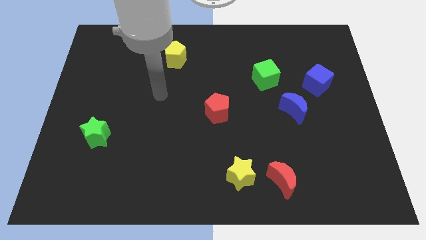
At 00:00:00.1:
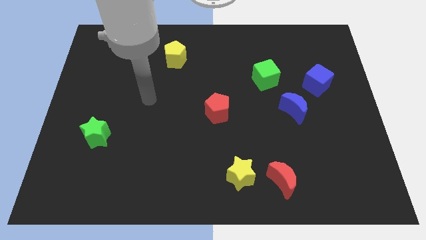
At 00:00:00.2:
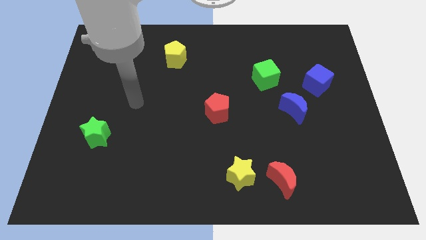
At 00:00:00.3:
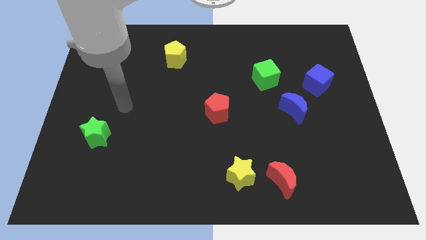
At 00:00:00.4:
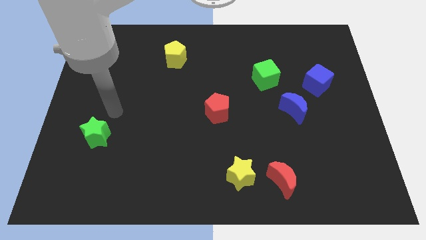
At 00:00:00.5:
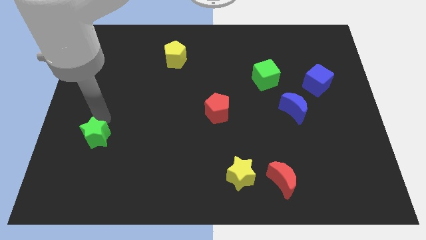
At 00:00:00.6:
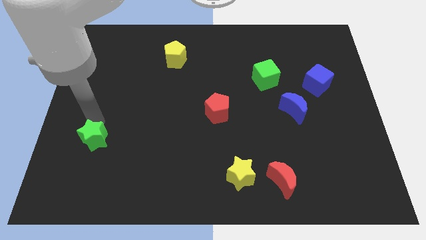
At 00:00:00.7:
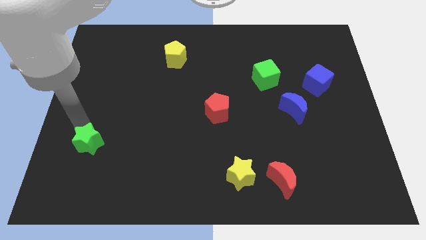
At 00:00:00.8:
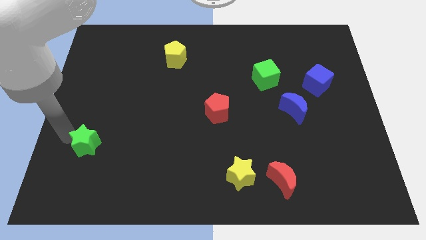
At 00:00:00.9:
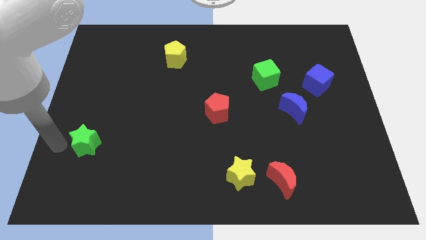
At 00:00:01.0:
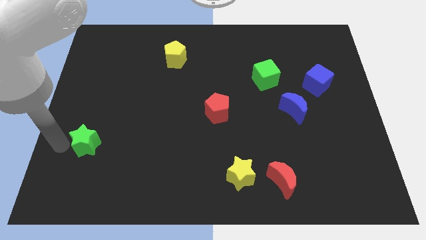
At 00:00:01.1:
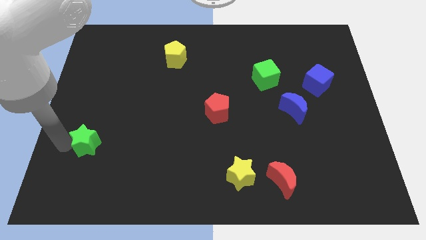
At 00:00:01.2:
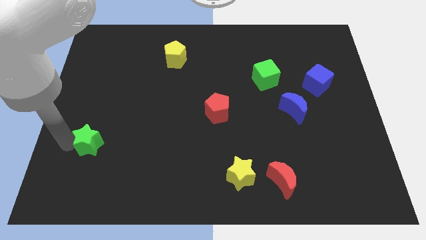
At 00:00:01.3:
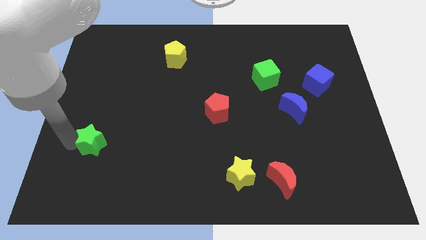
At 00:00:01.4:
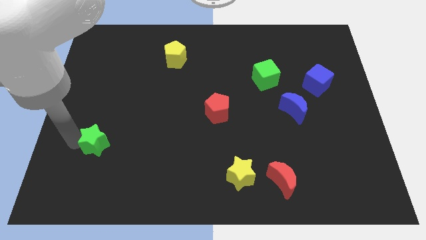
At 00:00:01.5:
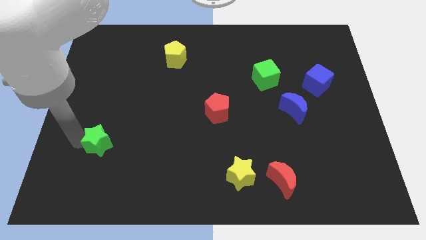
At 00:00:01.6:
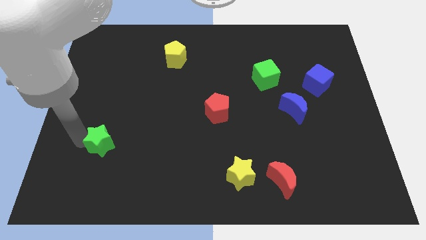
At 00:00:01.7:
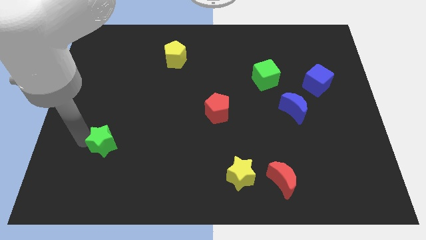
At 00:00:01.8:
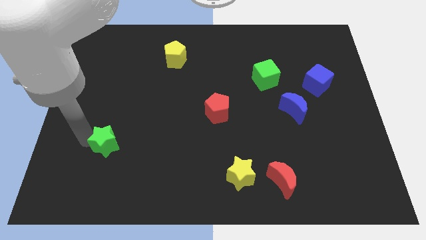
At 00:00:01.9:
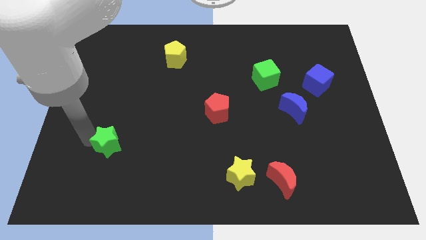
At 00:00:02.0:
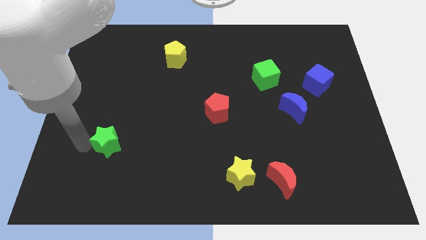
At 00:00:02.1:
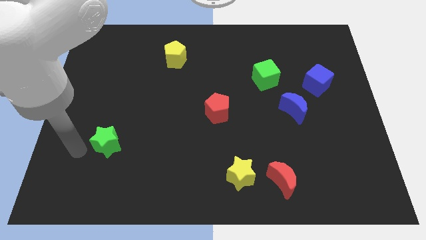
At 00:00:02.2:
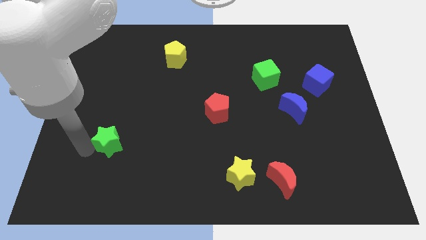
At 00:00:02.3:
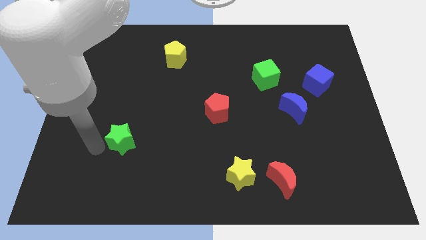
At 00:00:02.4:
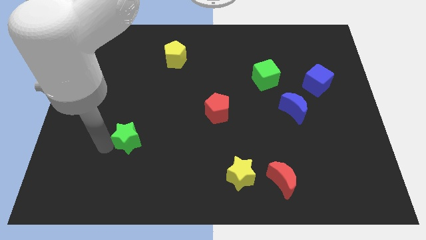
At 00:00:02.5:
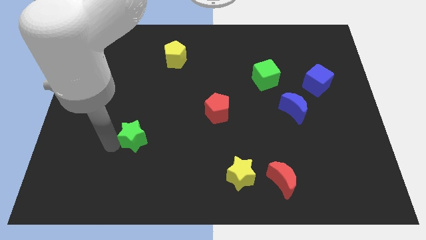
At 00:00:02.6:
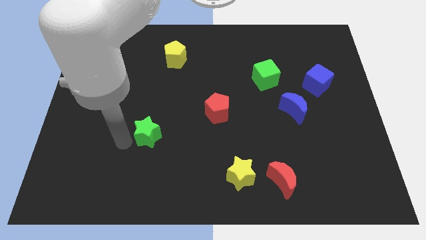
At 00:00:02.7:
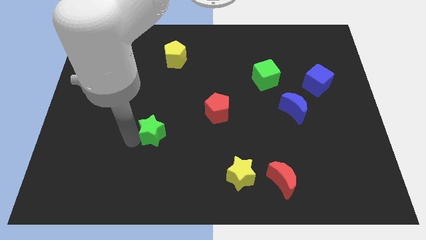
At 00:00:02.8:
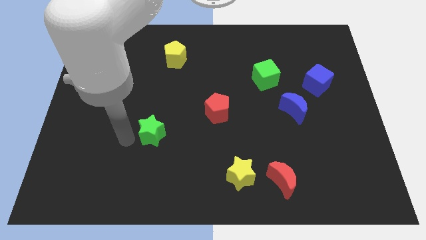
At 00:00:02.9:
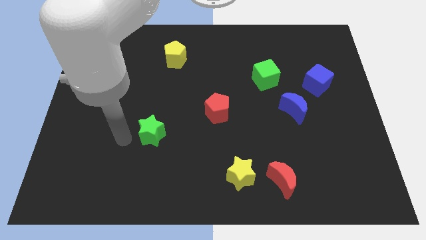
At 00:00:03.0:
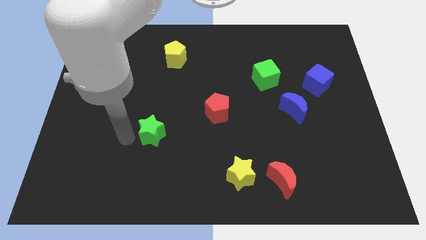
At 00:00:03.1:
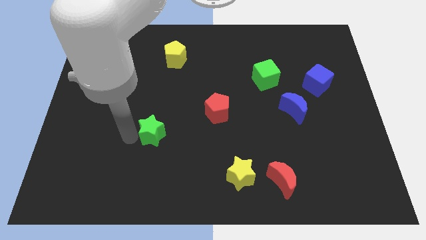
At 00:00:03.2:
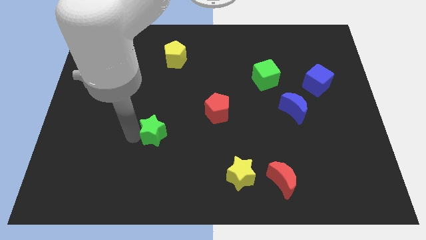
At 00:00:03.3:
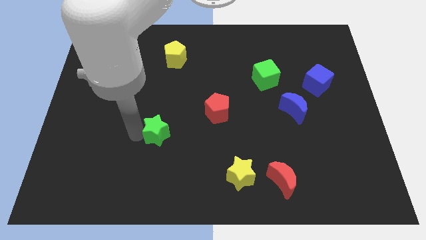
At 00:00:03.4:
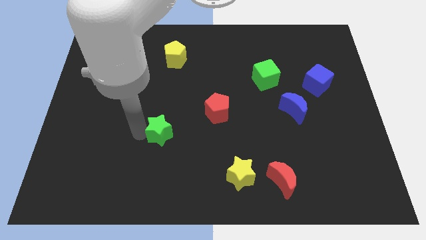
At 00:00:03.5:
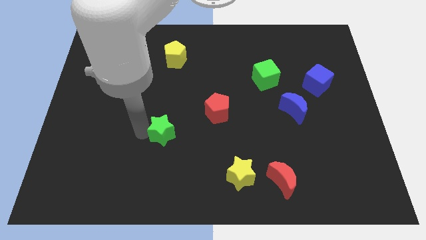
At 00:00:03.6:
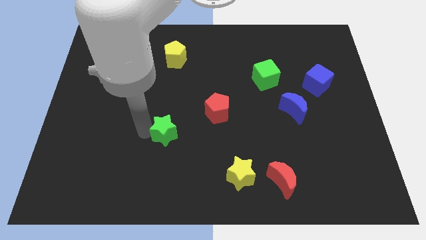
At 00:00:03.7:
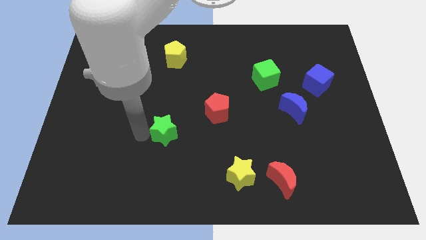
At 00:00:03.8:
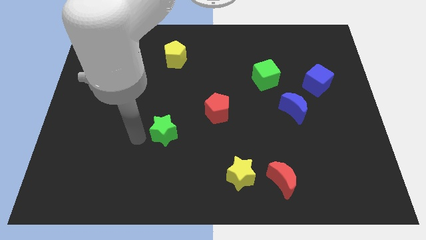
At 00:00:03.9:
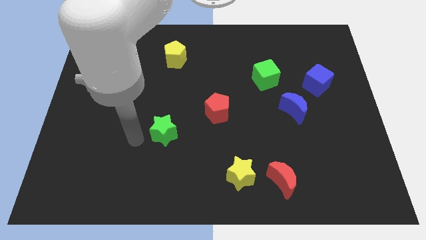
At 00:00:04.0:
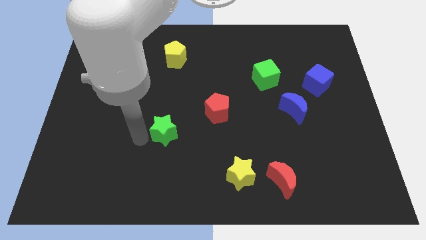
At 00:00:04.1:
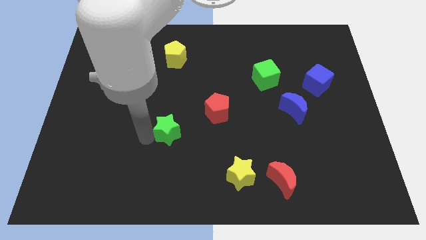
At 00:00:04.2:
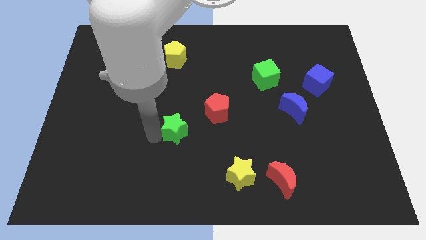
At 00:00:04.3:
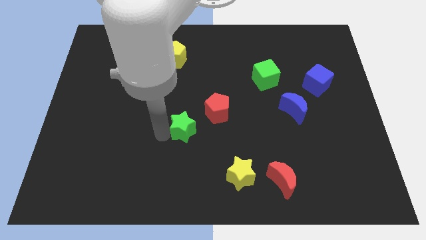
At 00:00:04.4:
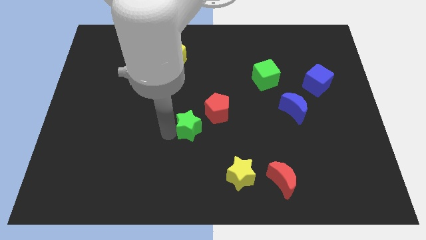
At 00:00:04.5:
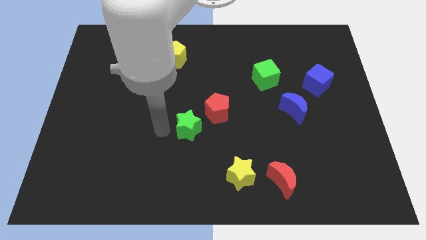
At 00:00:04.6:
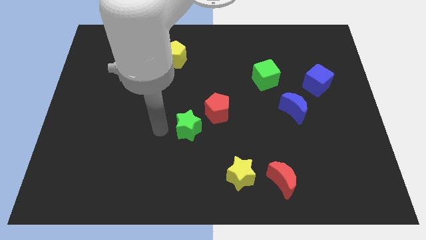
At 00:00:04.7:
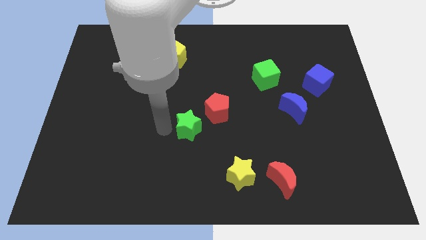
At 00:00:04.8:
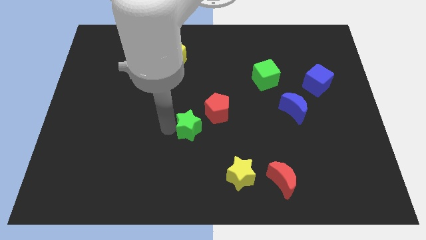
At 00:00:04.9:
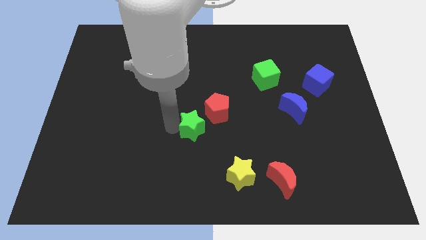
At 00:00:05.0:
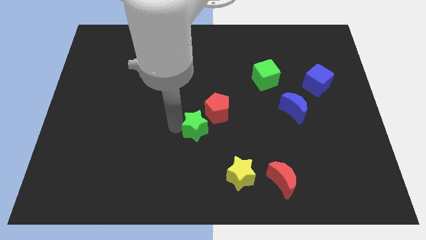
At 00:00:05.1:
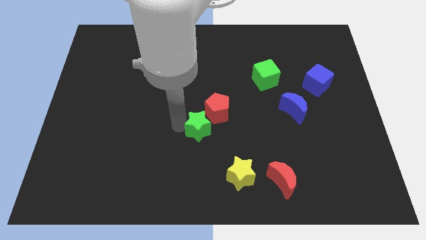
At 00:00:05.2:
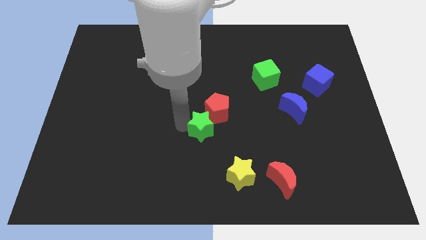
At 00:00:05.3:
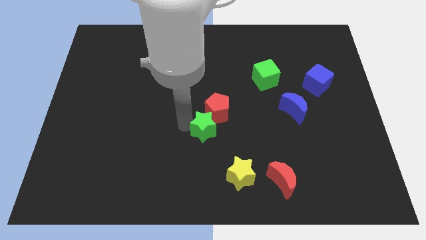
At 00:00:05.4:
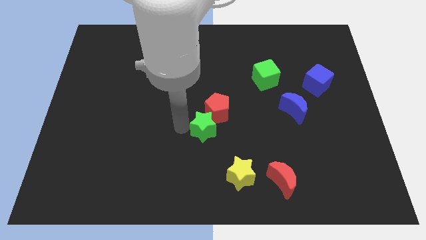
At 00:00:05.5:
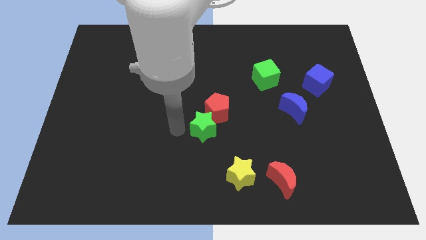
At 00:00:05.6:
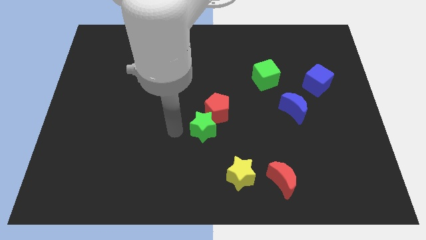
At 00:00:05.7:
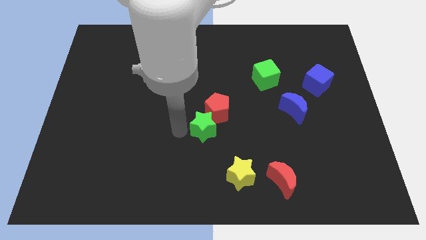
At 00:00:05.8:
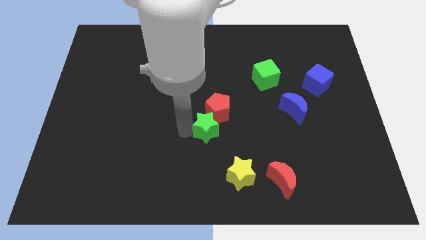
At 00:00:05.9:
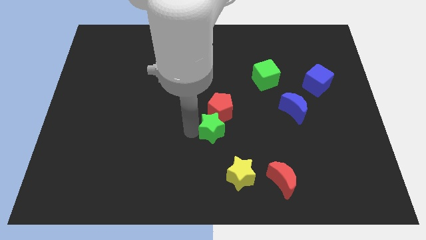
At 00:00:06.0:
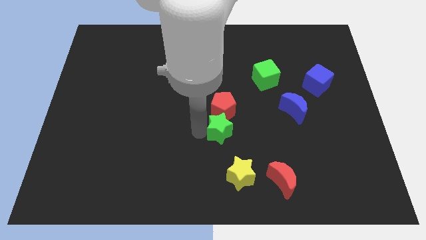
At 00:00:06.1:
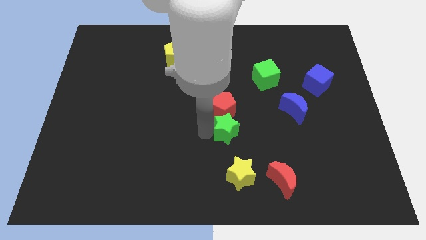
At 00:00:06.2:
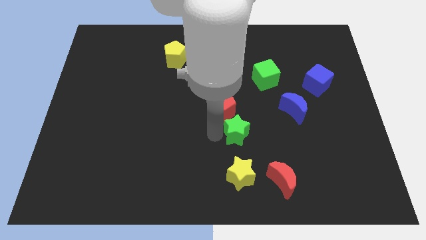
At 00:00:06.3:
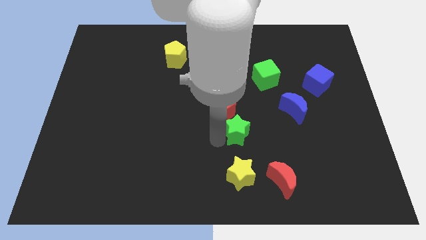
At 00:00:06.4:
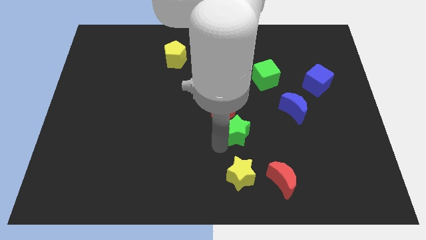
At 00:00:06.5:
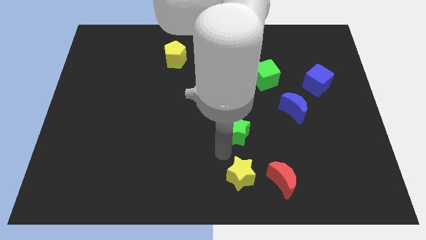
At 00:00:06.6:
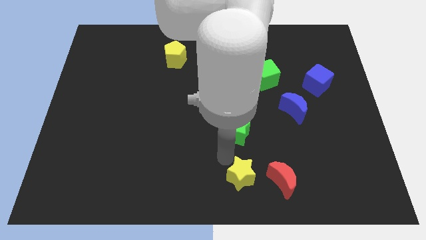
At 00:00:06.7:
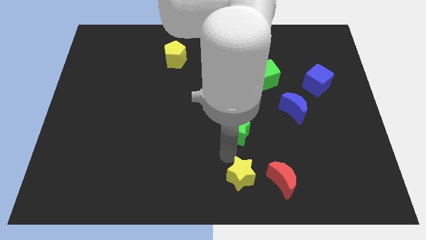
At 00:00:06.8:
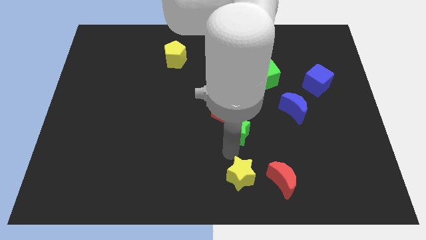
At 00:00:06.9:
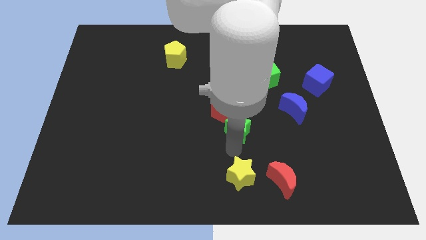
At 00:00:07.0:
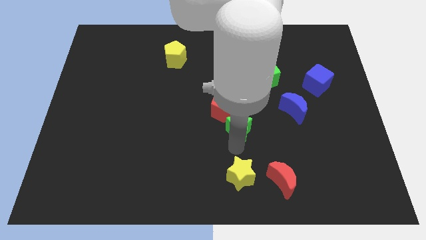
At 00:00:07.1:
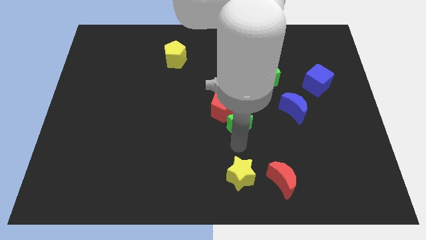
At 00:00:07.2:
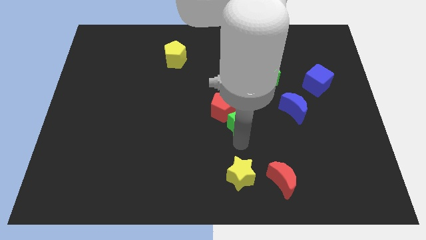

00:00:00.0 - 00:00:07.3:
put the green star to the left of the blue moon

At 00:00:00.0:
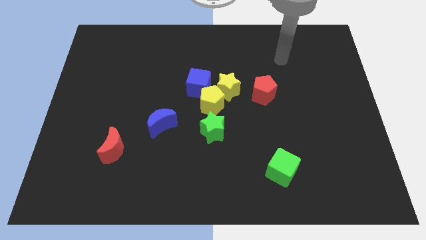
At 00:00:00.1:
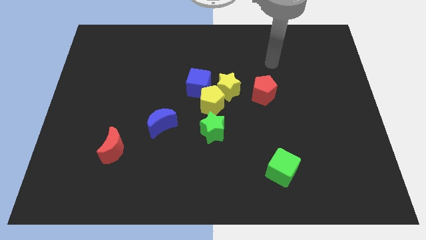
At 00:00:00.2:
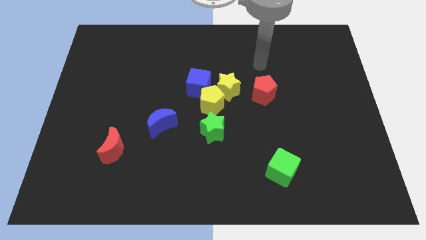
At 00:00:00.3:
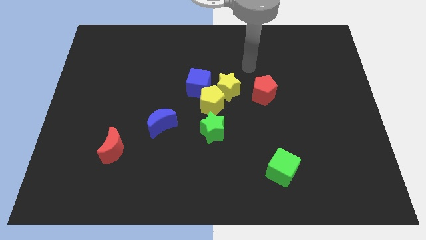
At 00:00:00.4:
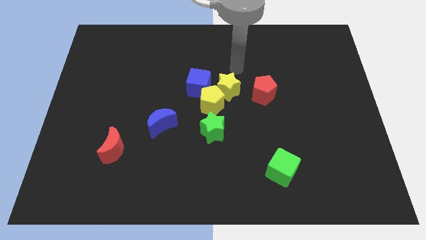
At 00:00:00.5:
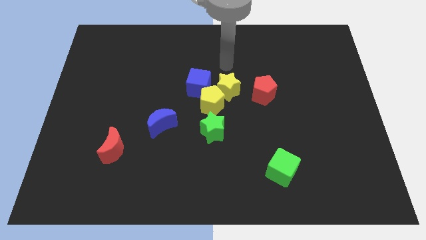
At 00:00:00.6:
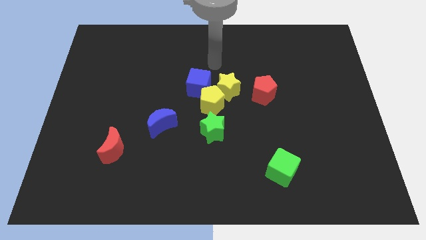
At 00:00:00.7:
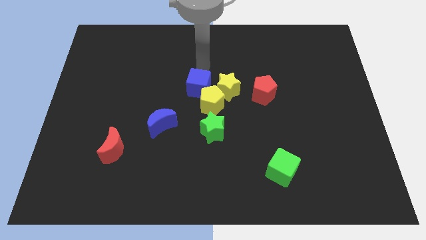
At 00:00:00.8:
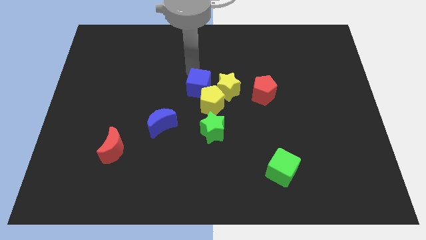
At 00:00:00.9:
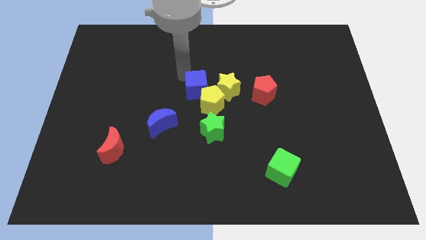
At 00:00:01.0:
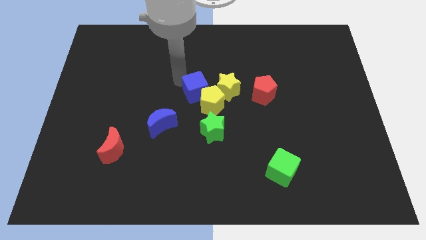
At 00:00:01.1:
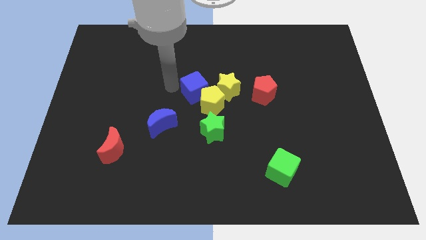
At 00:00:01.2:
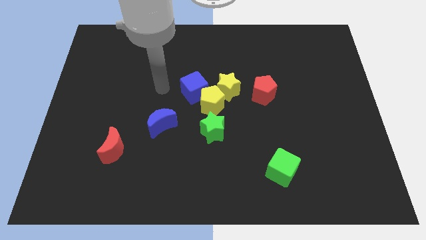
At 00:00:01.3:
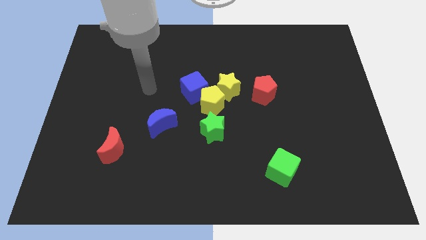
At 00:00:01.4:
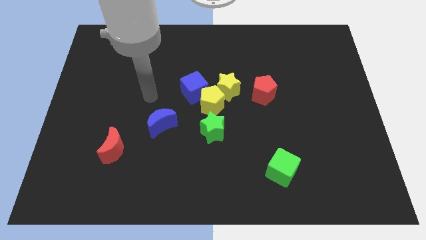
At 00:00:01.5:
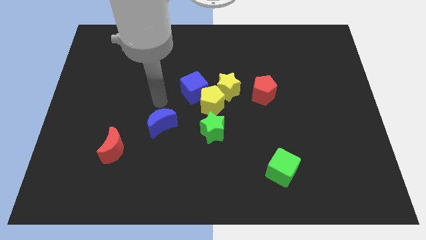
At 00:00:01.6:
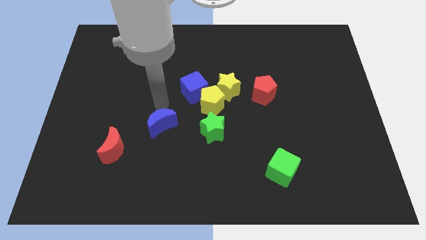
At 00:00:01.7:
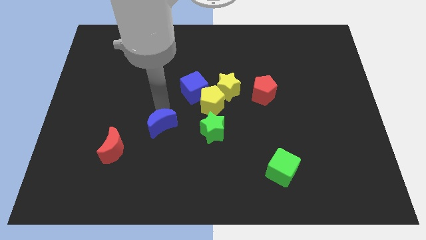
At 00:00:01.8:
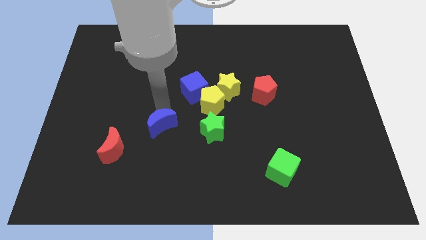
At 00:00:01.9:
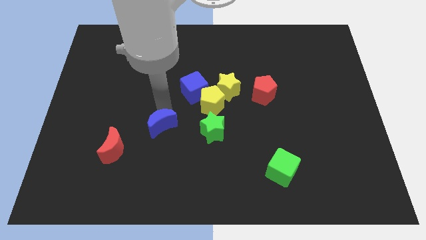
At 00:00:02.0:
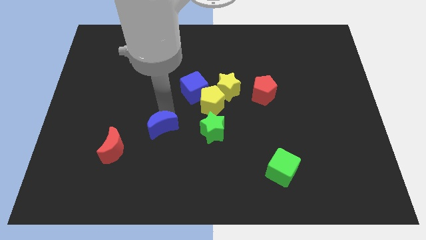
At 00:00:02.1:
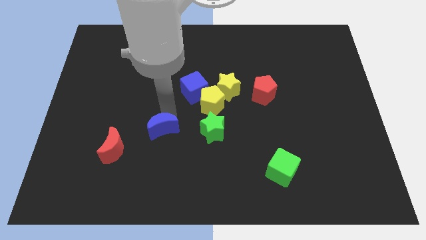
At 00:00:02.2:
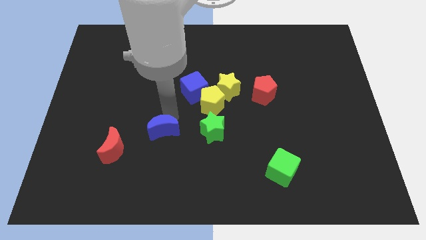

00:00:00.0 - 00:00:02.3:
move the blue moon right of the red moon
